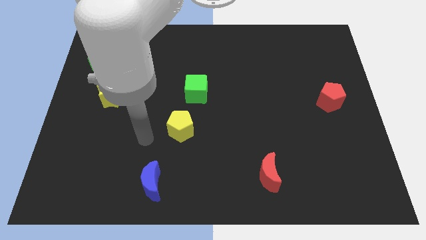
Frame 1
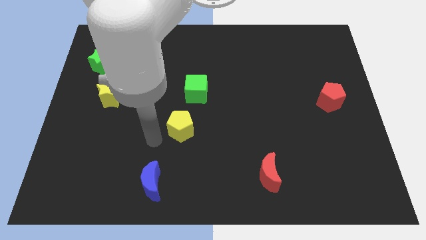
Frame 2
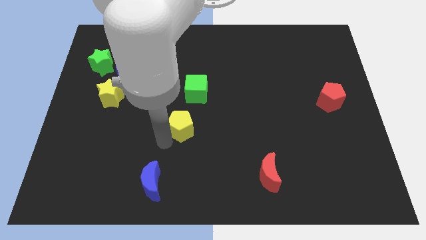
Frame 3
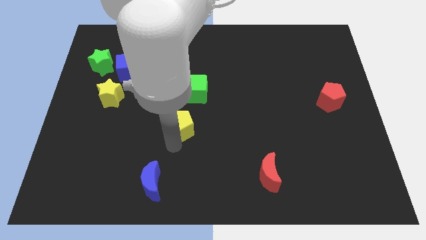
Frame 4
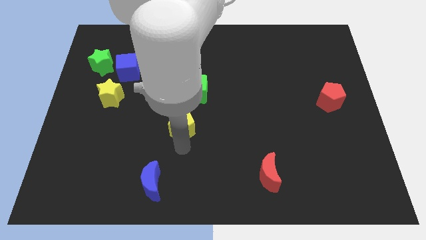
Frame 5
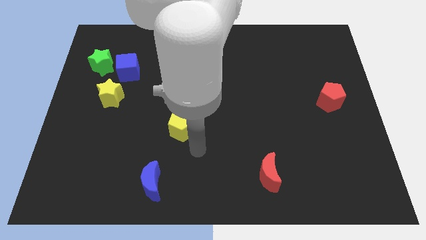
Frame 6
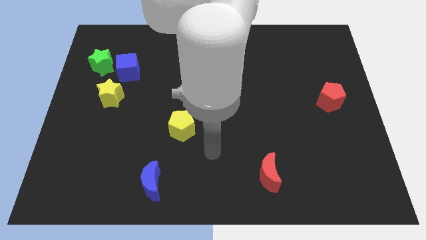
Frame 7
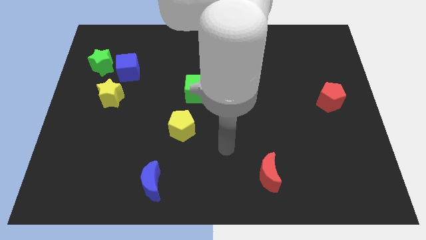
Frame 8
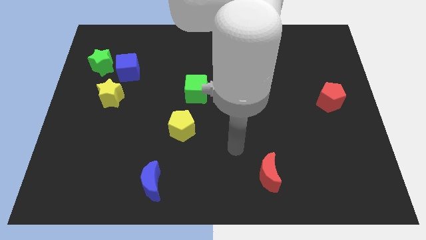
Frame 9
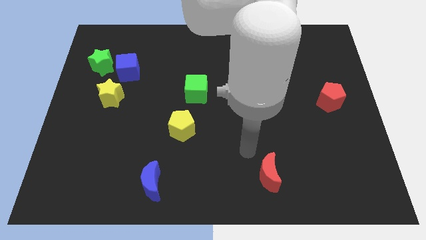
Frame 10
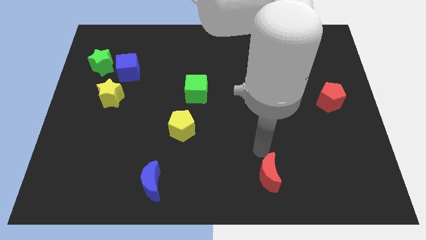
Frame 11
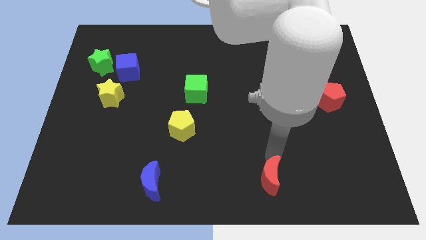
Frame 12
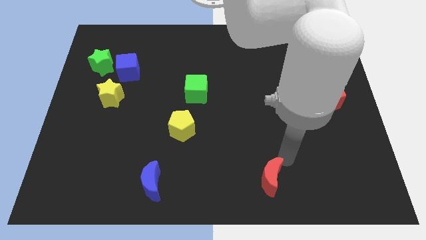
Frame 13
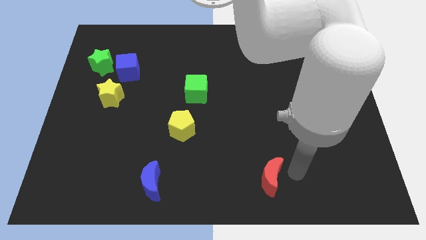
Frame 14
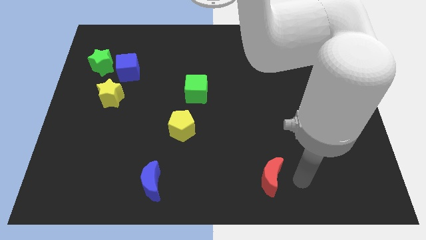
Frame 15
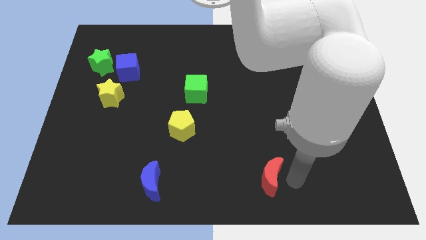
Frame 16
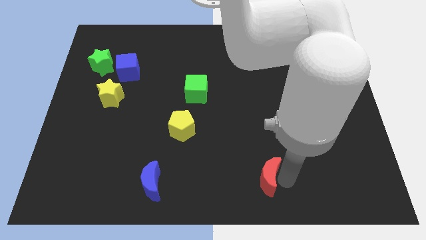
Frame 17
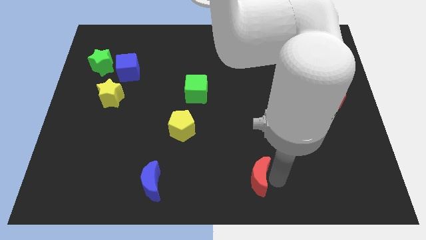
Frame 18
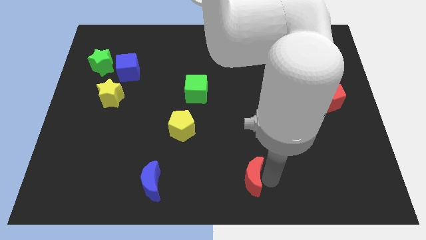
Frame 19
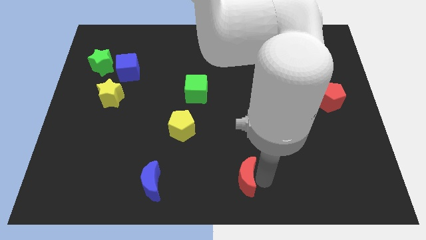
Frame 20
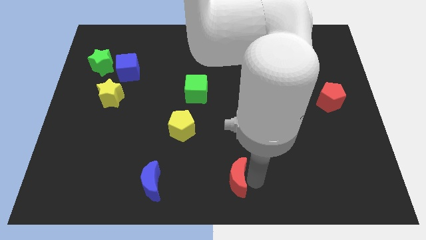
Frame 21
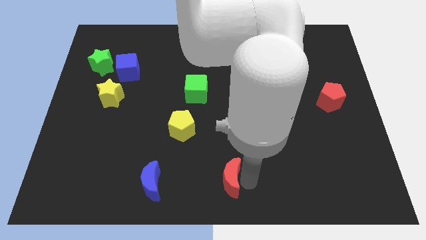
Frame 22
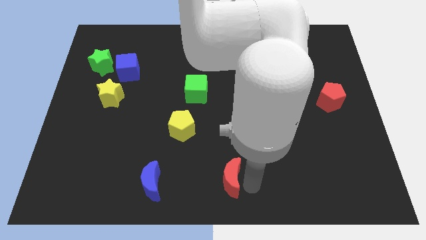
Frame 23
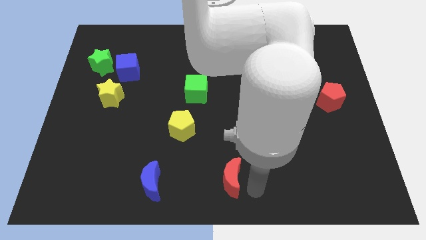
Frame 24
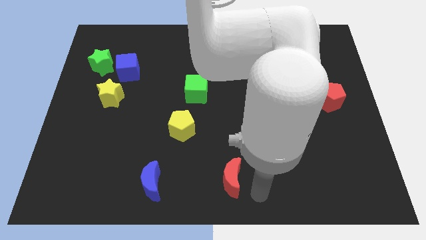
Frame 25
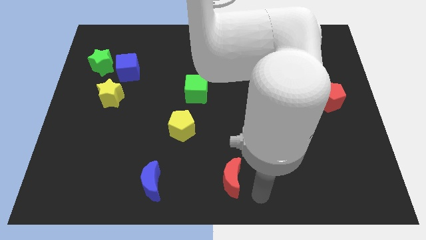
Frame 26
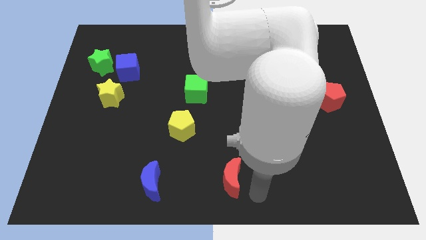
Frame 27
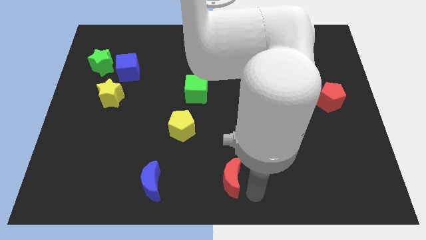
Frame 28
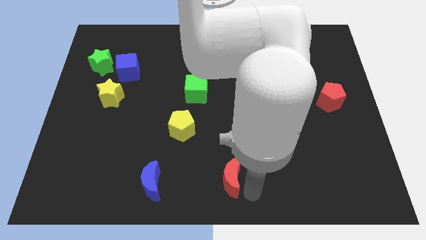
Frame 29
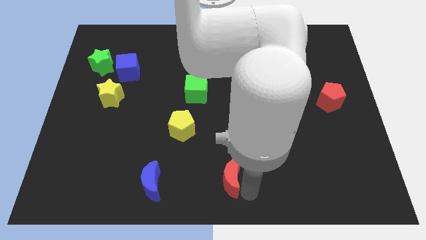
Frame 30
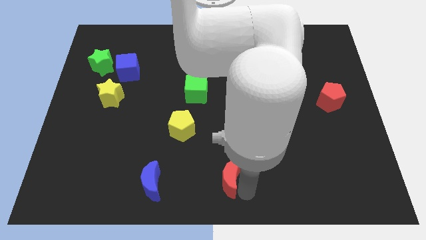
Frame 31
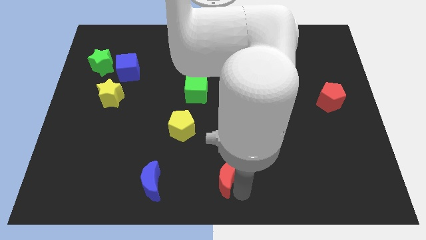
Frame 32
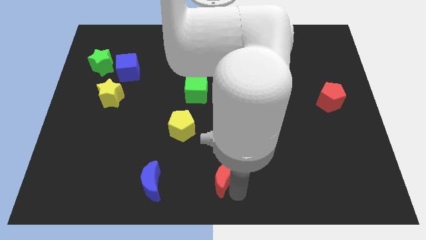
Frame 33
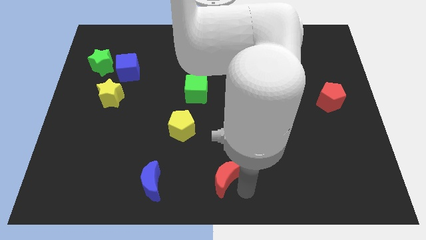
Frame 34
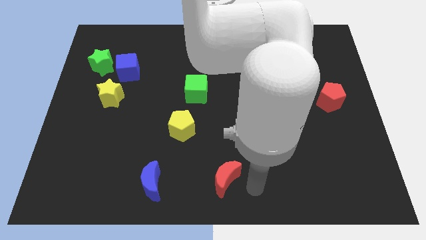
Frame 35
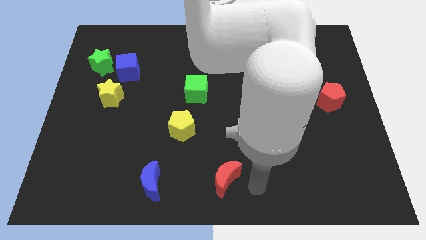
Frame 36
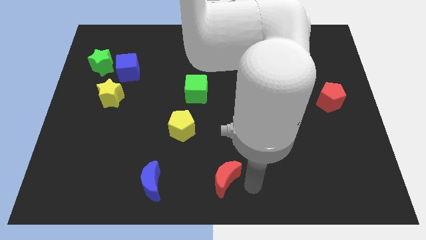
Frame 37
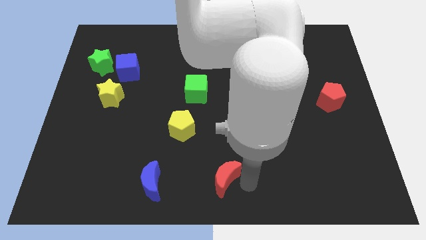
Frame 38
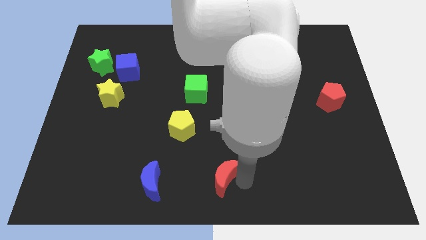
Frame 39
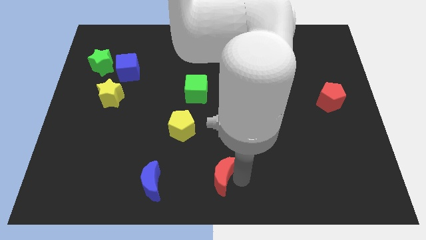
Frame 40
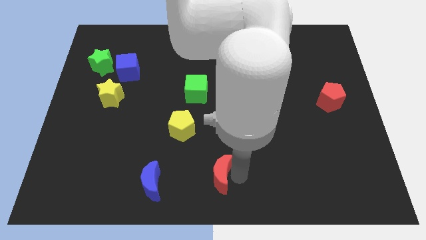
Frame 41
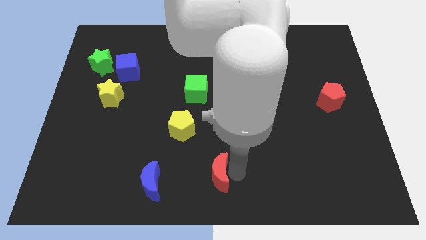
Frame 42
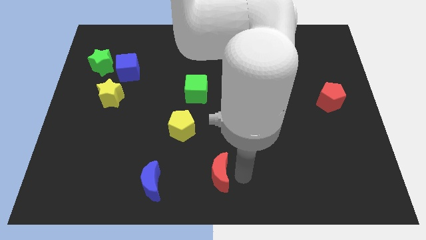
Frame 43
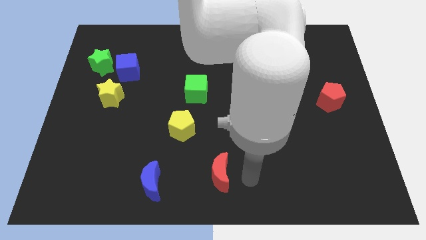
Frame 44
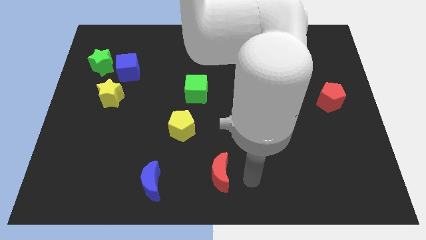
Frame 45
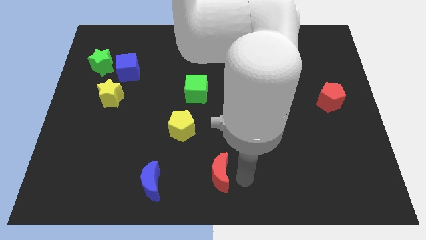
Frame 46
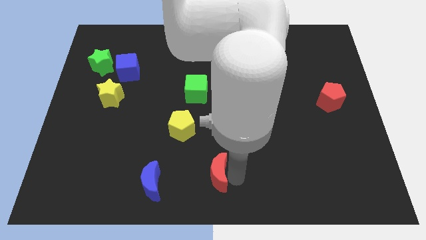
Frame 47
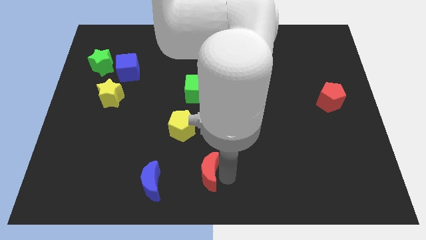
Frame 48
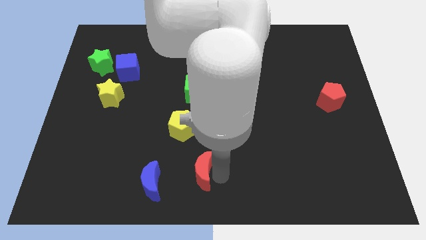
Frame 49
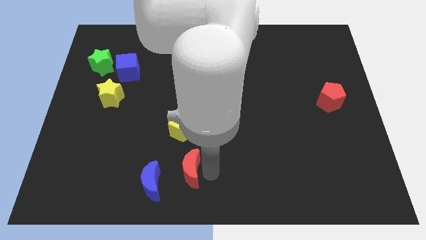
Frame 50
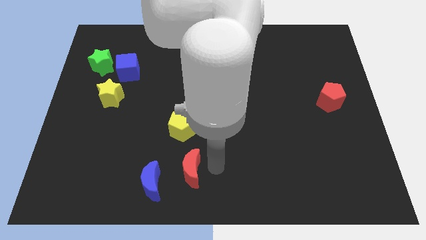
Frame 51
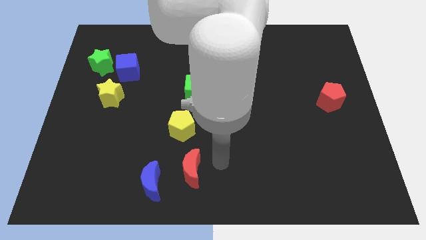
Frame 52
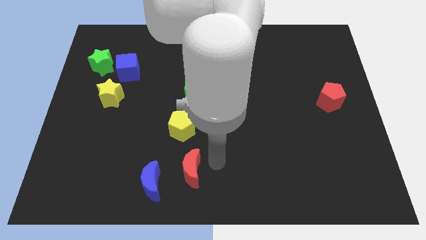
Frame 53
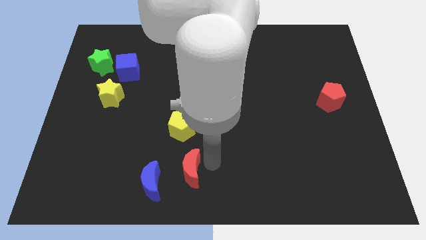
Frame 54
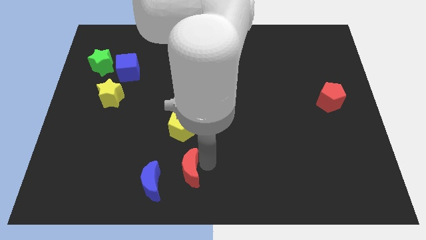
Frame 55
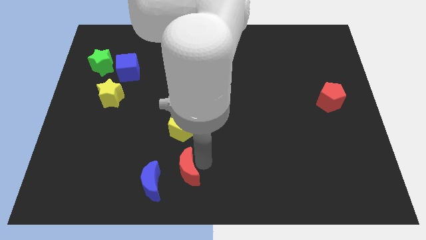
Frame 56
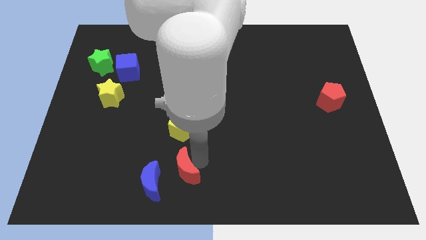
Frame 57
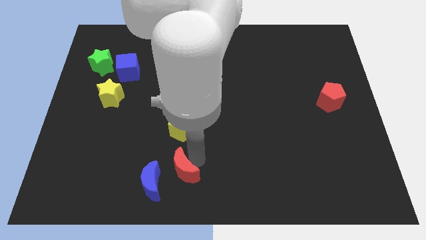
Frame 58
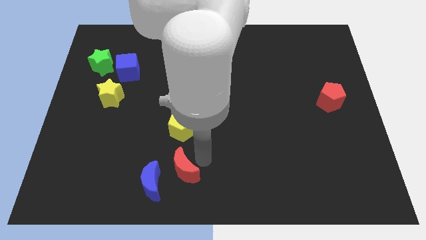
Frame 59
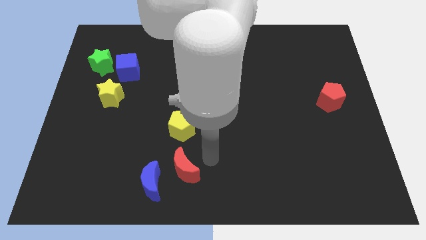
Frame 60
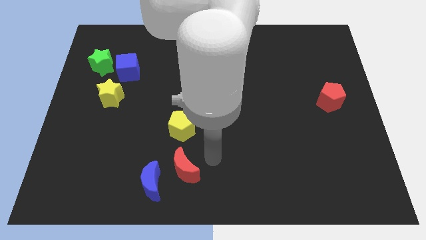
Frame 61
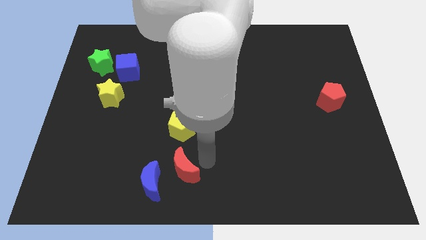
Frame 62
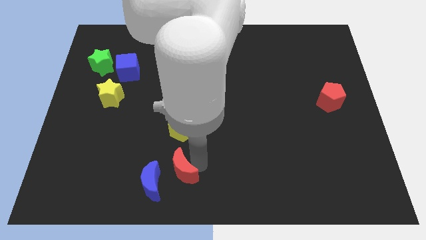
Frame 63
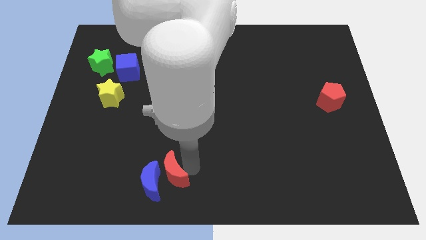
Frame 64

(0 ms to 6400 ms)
move the red moon towards the blue moon
